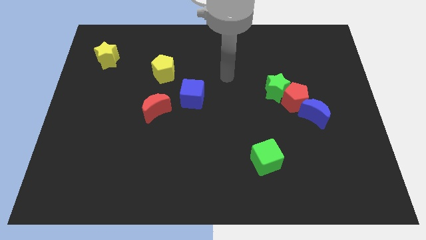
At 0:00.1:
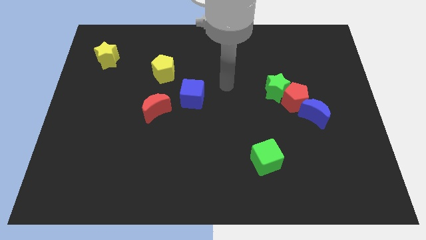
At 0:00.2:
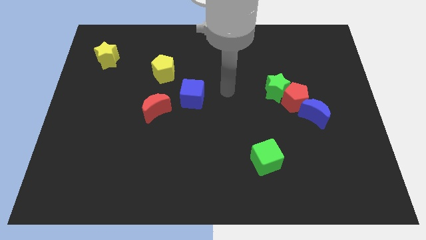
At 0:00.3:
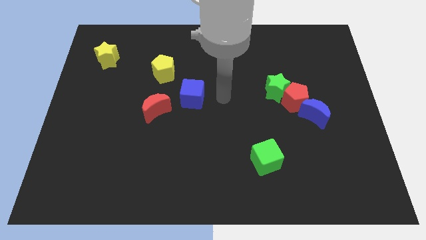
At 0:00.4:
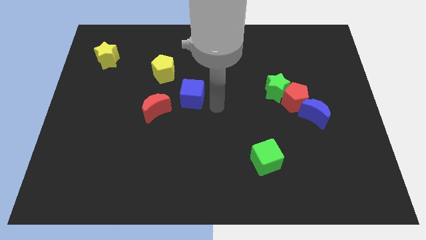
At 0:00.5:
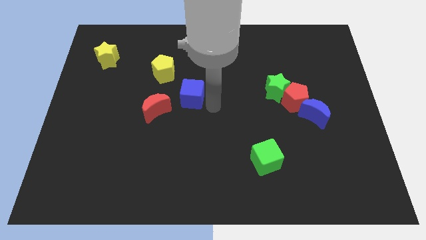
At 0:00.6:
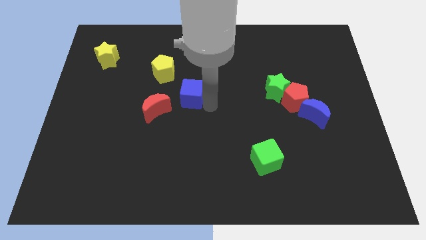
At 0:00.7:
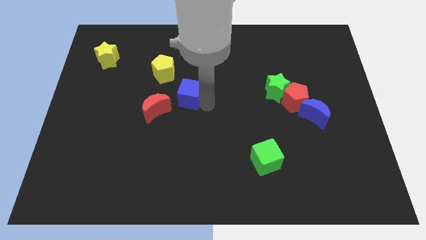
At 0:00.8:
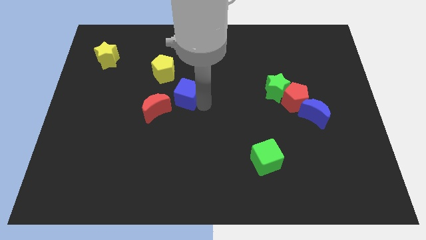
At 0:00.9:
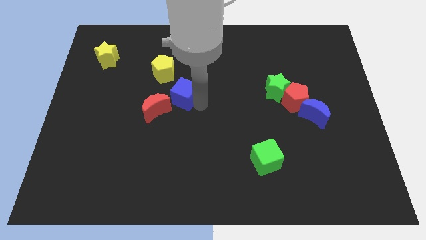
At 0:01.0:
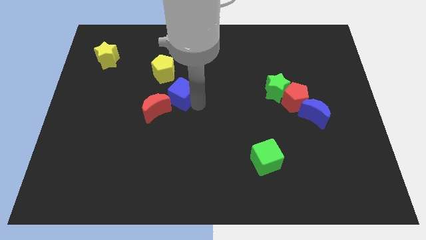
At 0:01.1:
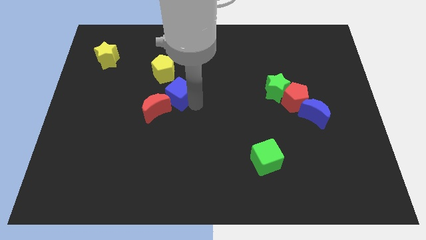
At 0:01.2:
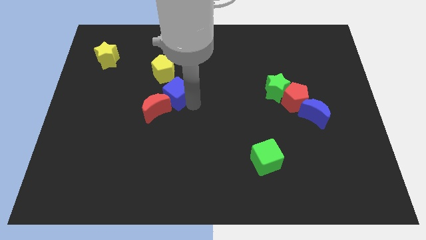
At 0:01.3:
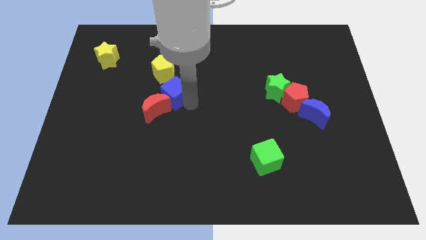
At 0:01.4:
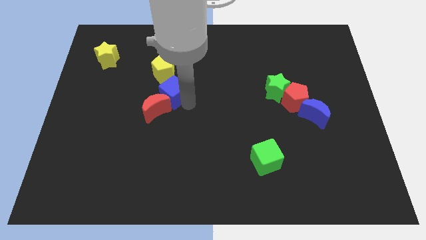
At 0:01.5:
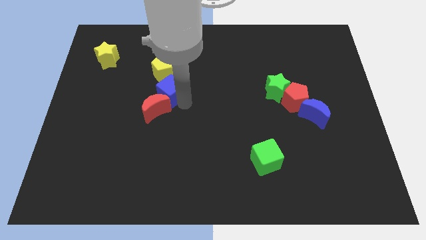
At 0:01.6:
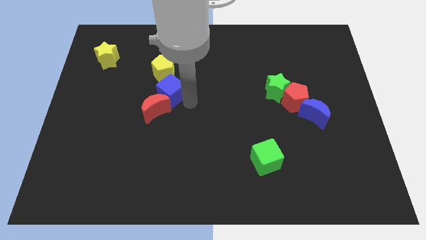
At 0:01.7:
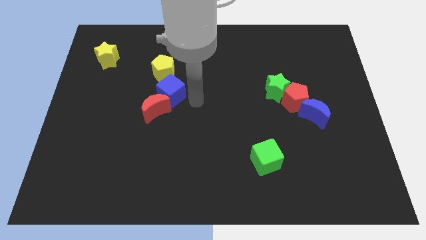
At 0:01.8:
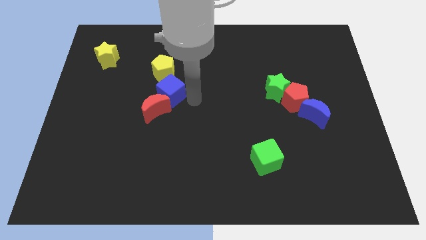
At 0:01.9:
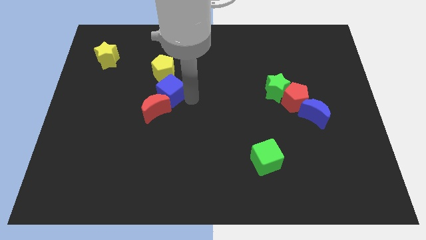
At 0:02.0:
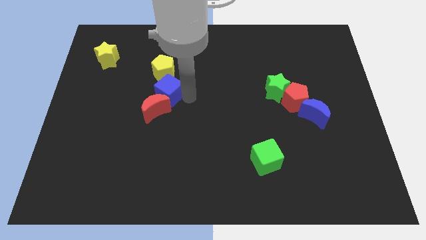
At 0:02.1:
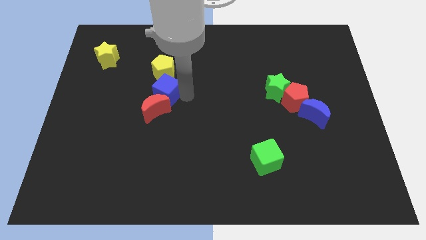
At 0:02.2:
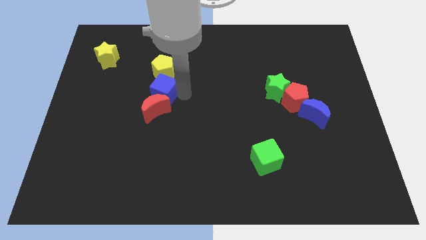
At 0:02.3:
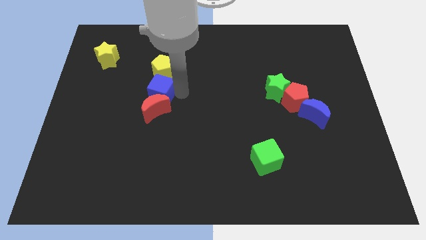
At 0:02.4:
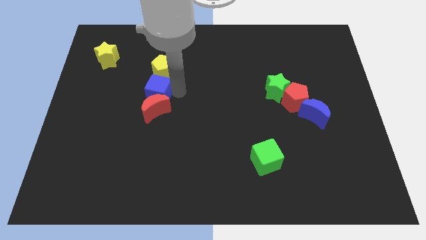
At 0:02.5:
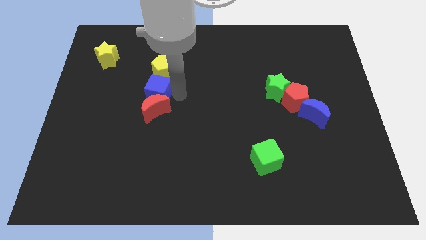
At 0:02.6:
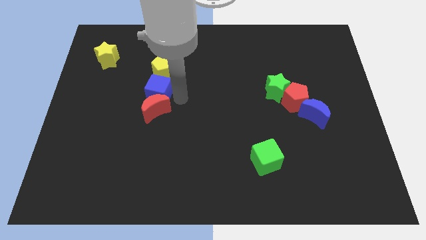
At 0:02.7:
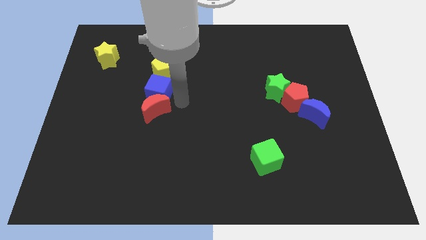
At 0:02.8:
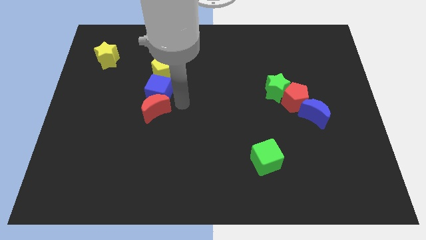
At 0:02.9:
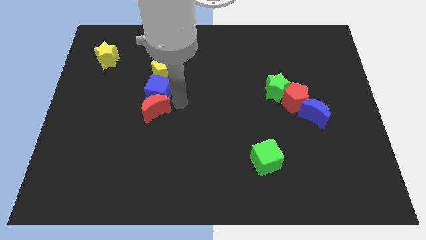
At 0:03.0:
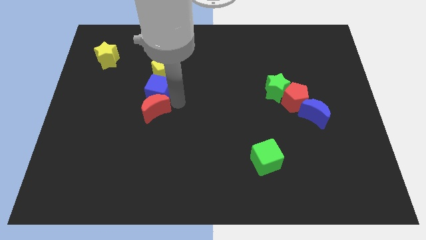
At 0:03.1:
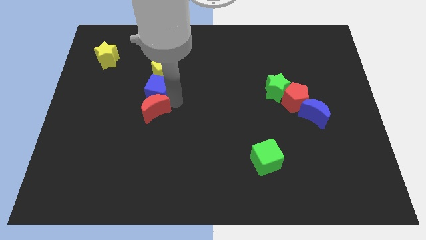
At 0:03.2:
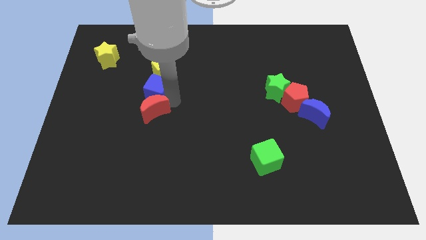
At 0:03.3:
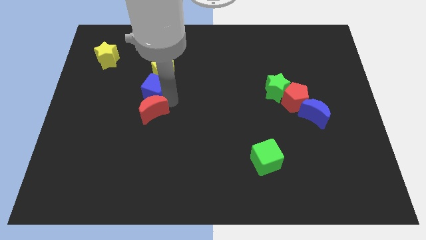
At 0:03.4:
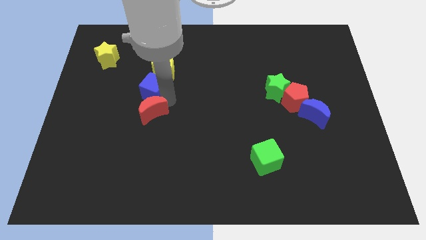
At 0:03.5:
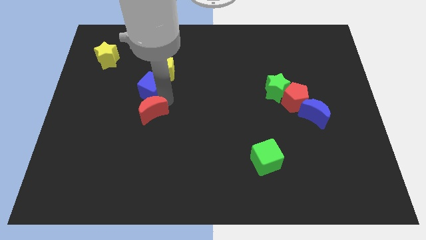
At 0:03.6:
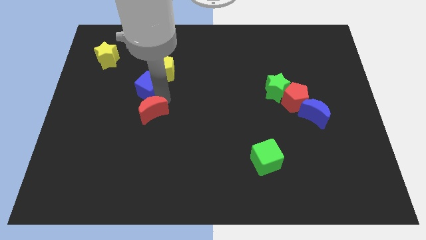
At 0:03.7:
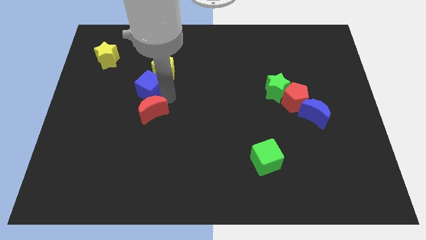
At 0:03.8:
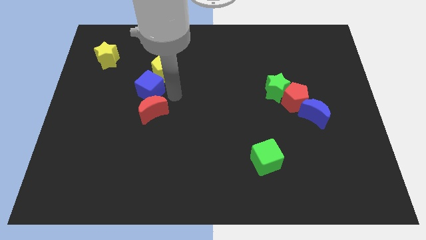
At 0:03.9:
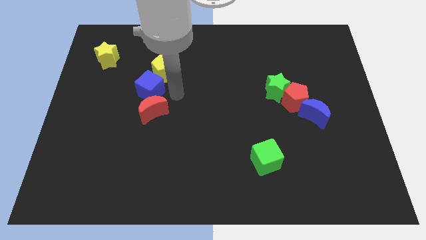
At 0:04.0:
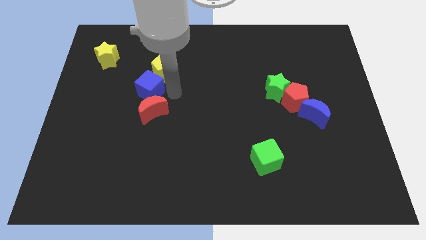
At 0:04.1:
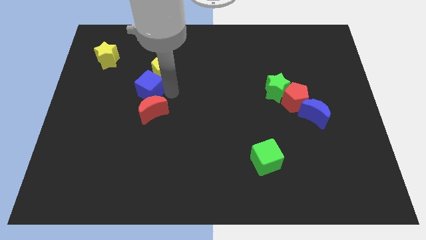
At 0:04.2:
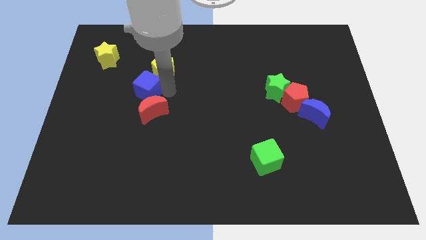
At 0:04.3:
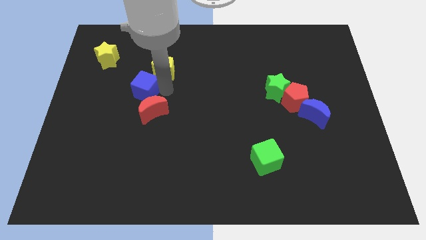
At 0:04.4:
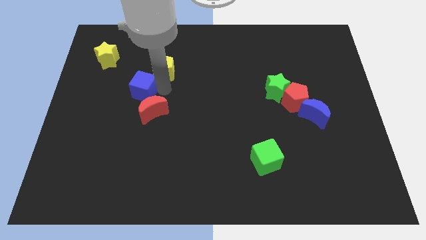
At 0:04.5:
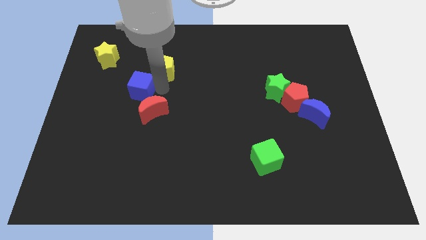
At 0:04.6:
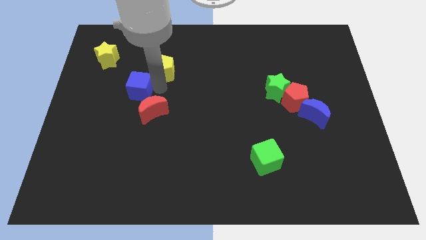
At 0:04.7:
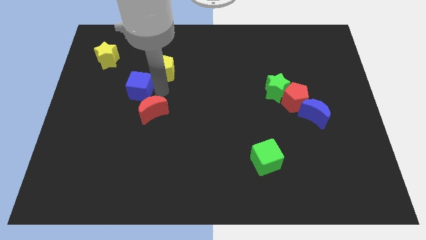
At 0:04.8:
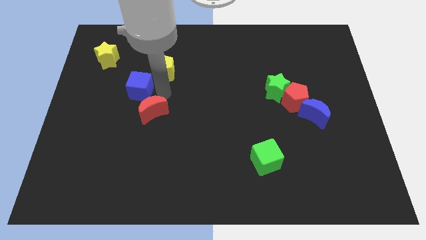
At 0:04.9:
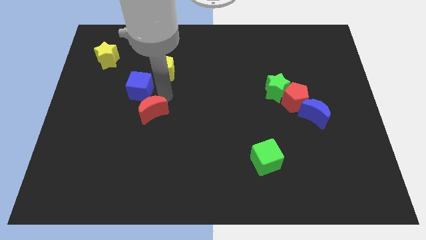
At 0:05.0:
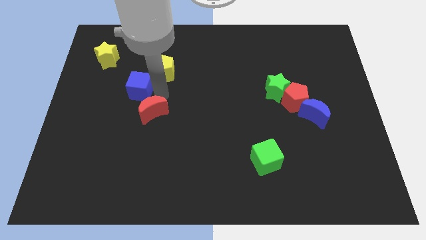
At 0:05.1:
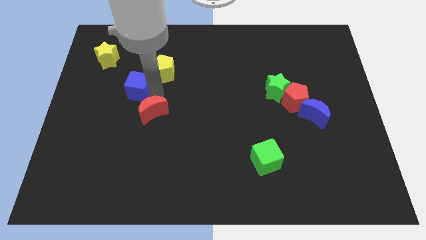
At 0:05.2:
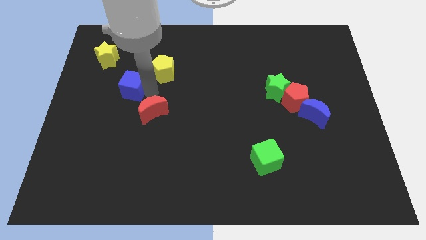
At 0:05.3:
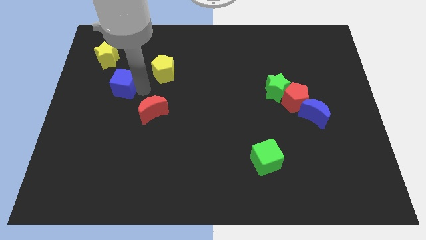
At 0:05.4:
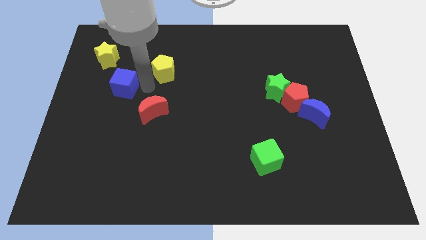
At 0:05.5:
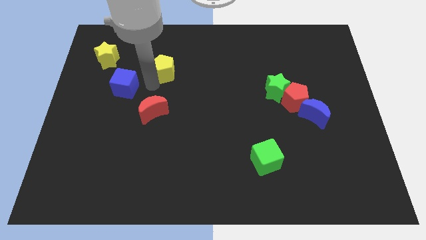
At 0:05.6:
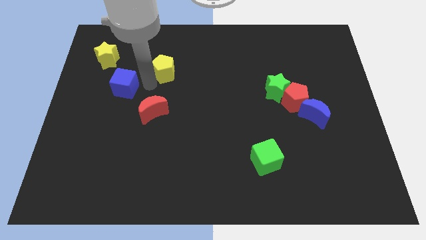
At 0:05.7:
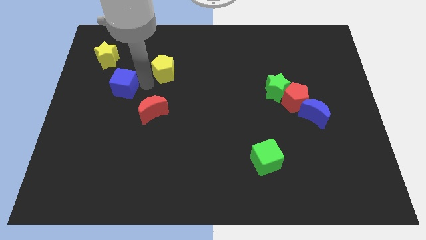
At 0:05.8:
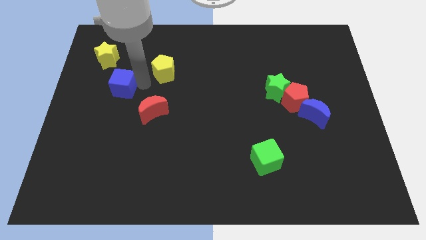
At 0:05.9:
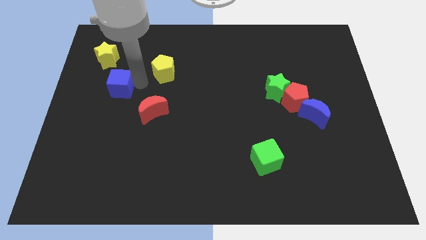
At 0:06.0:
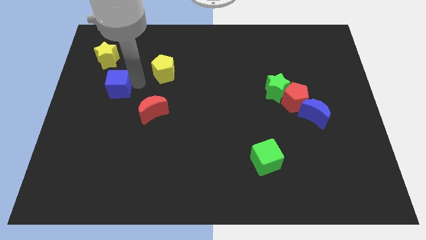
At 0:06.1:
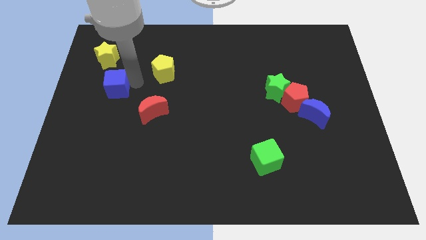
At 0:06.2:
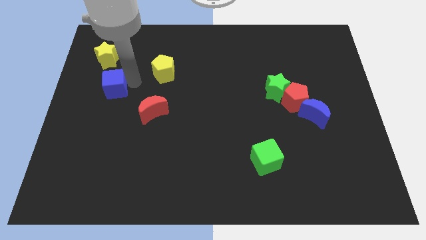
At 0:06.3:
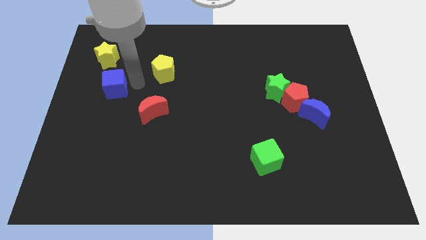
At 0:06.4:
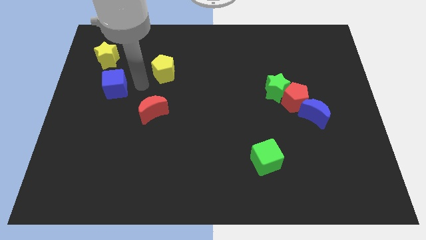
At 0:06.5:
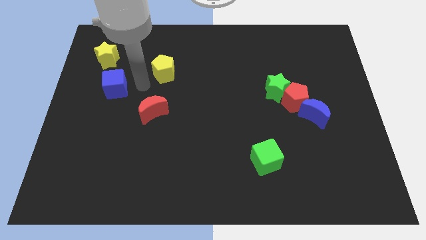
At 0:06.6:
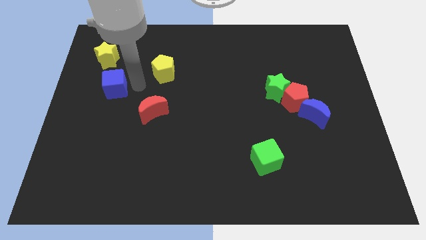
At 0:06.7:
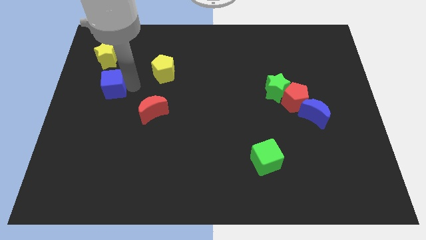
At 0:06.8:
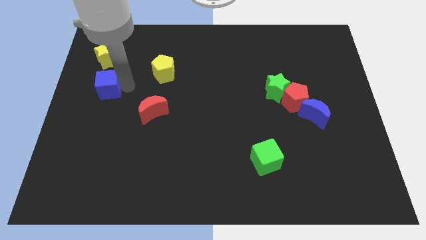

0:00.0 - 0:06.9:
push the blue cube to the left side
